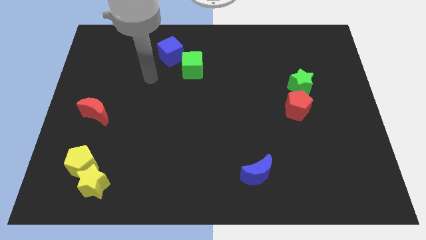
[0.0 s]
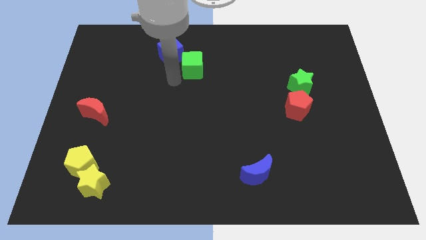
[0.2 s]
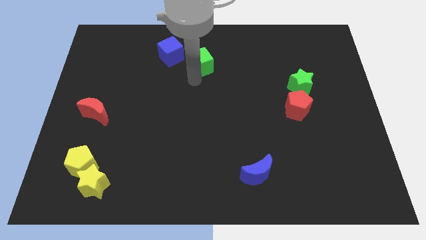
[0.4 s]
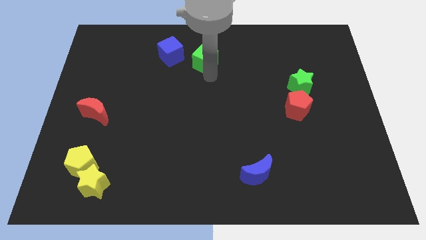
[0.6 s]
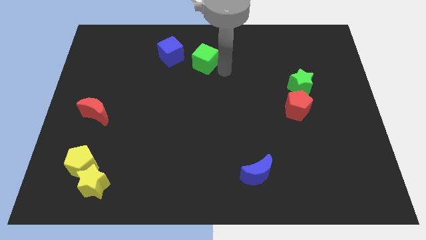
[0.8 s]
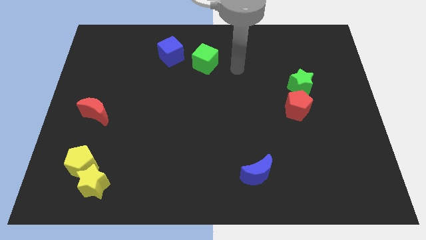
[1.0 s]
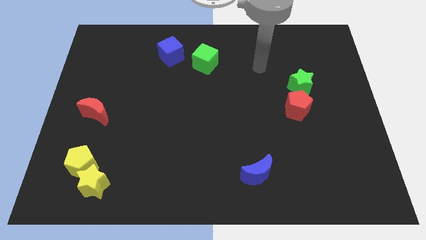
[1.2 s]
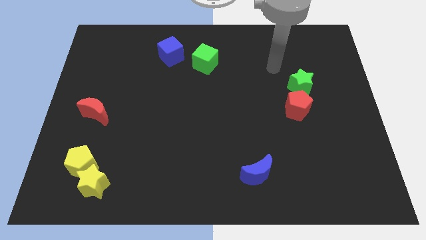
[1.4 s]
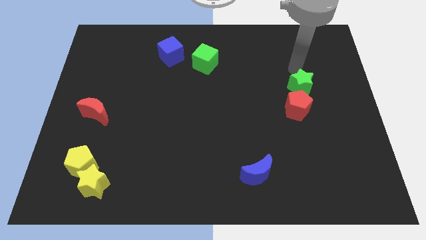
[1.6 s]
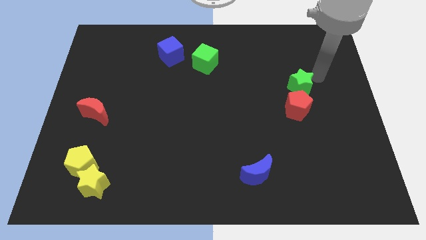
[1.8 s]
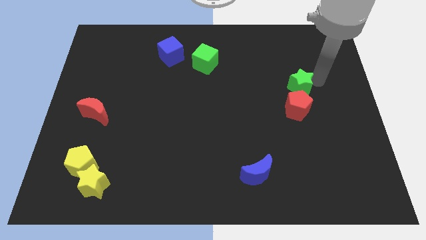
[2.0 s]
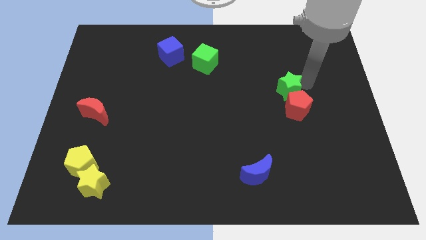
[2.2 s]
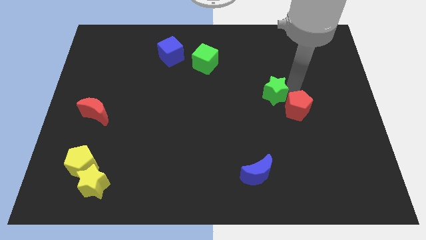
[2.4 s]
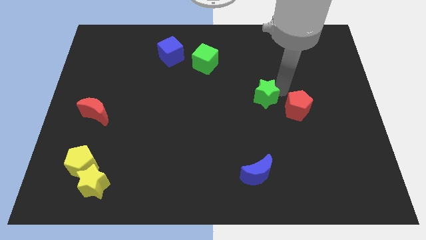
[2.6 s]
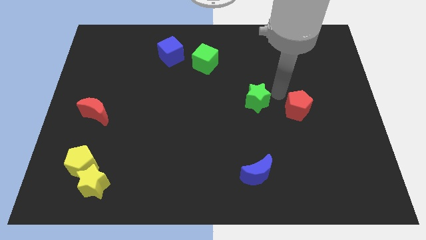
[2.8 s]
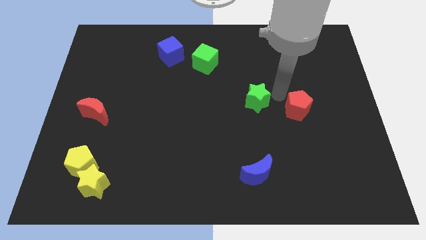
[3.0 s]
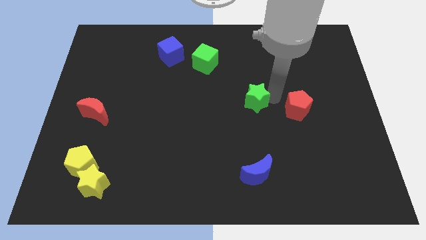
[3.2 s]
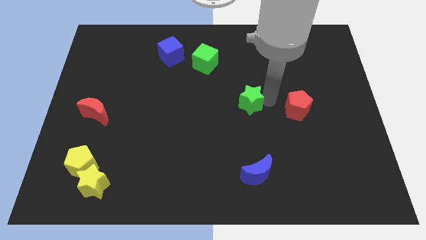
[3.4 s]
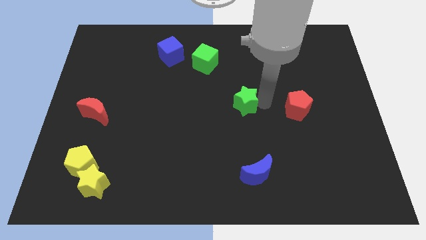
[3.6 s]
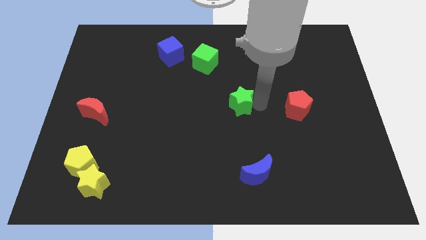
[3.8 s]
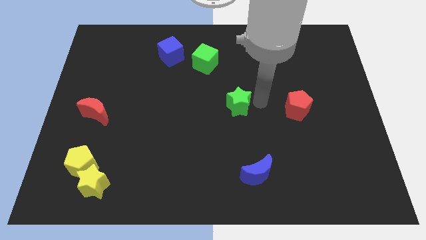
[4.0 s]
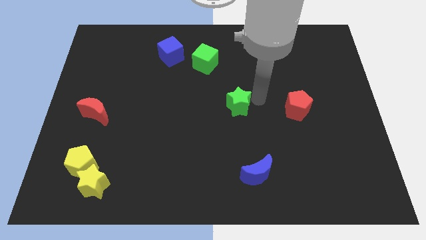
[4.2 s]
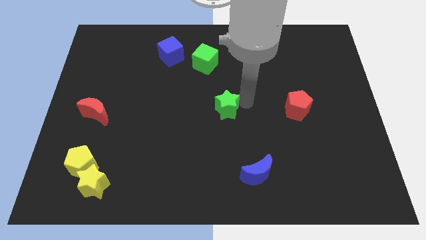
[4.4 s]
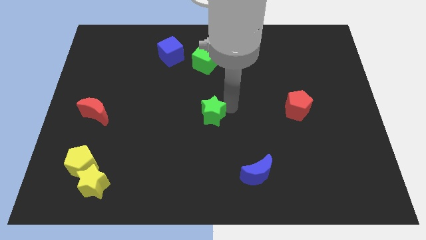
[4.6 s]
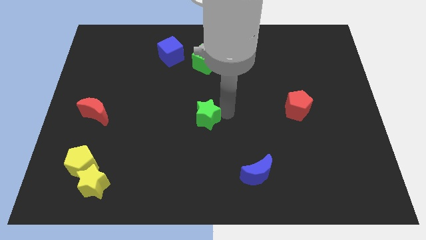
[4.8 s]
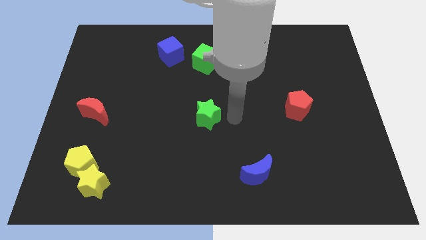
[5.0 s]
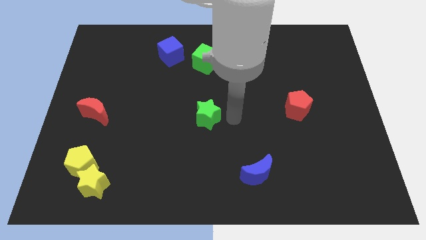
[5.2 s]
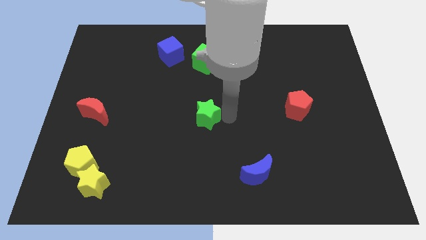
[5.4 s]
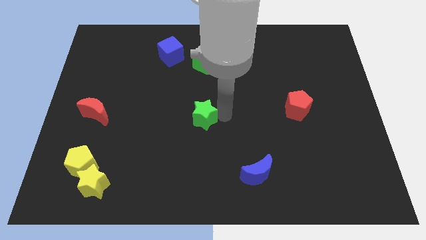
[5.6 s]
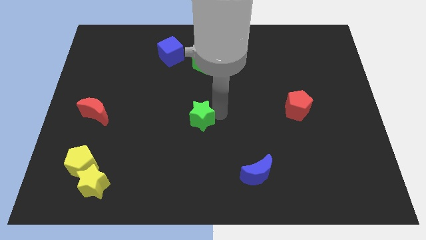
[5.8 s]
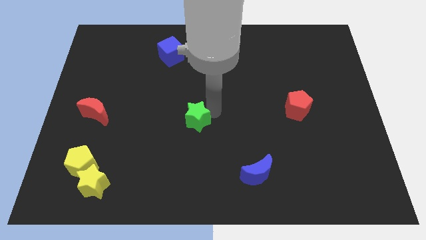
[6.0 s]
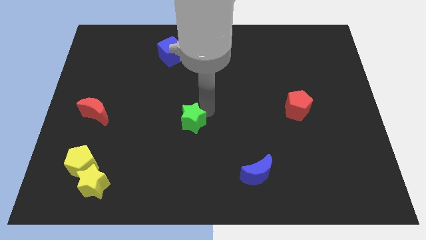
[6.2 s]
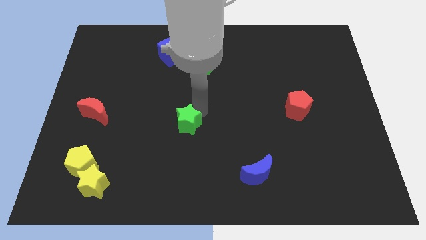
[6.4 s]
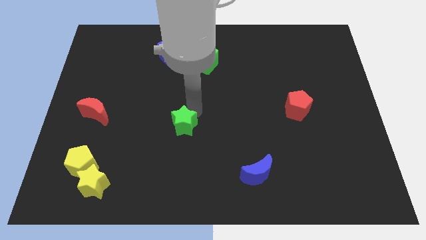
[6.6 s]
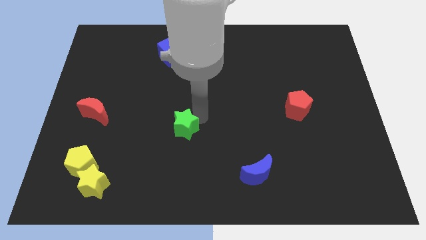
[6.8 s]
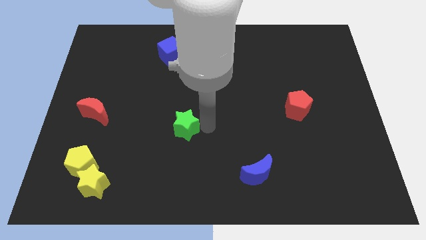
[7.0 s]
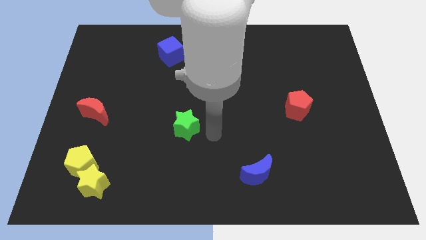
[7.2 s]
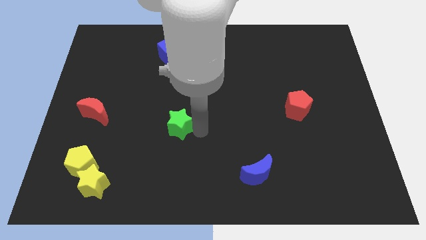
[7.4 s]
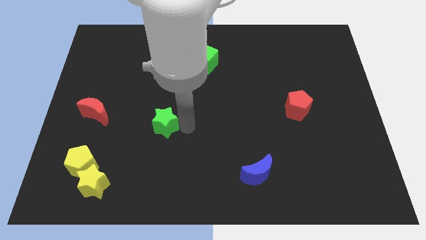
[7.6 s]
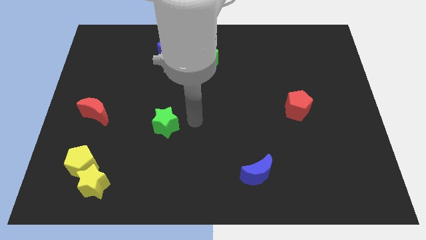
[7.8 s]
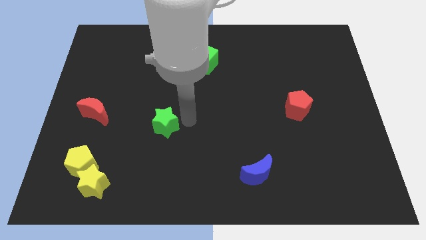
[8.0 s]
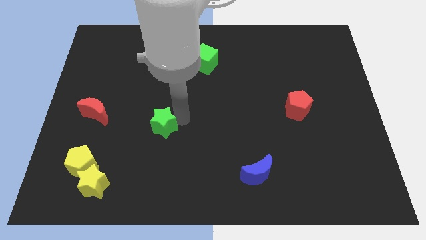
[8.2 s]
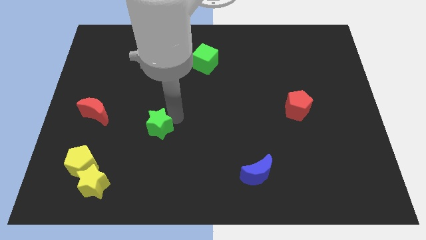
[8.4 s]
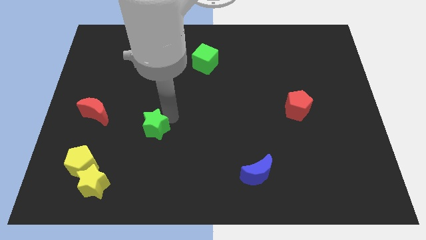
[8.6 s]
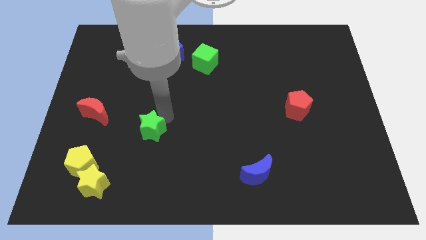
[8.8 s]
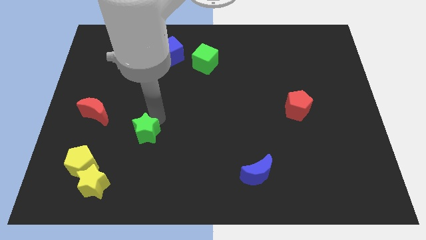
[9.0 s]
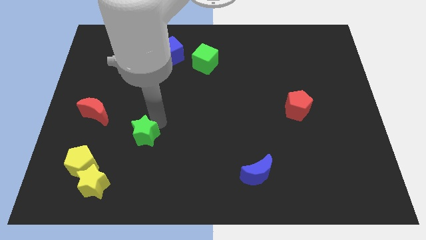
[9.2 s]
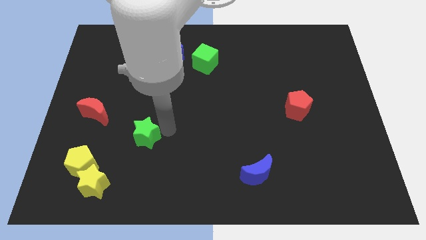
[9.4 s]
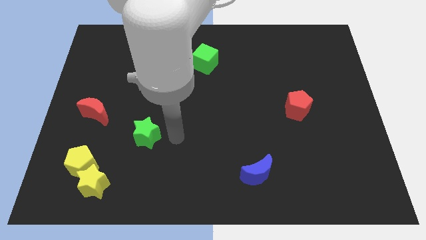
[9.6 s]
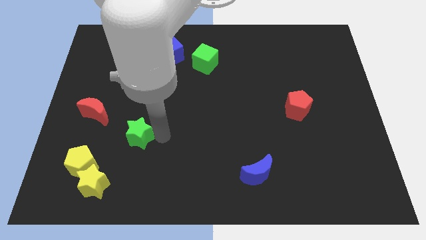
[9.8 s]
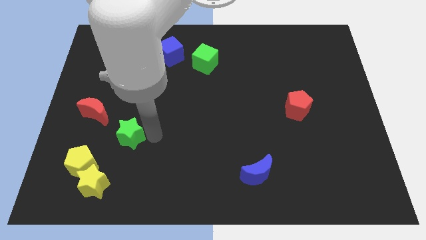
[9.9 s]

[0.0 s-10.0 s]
put the green star to the bottom right side of the red moon

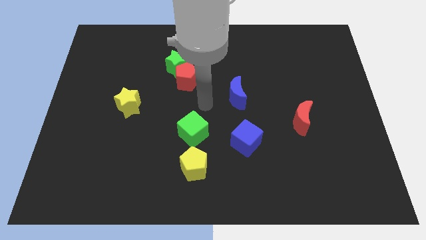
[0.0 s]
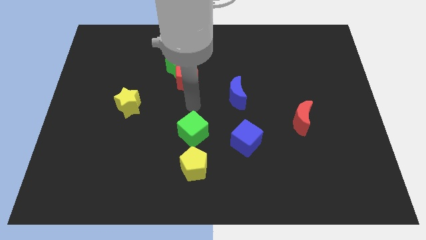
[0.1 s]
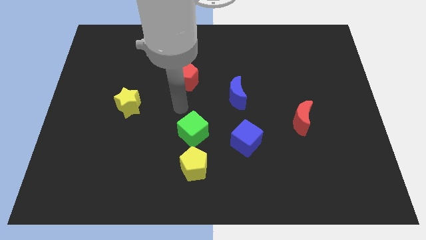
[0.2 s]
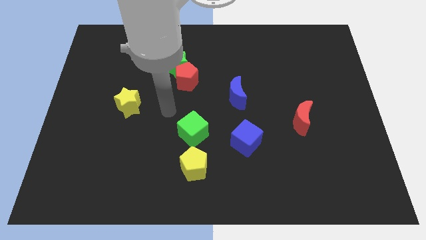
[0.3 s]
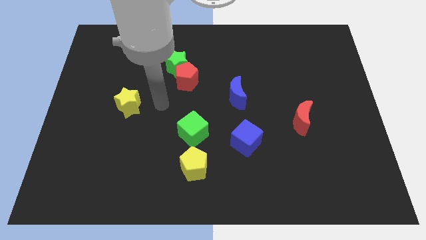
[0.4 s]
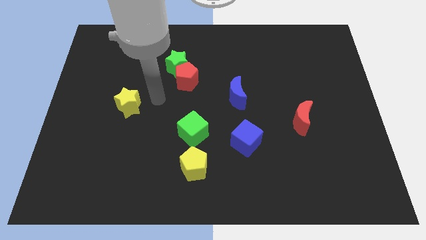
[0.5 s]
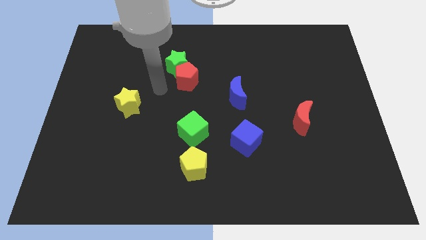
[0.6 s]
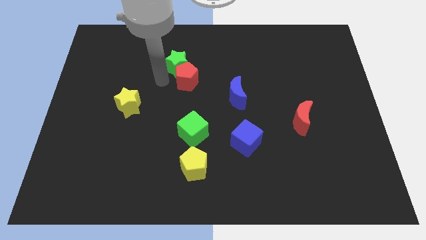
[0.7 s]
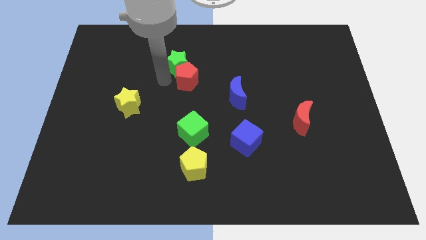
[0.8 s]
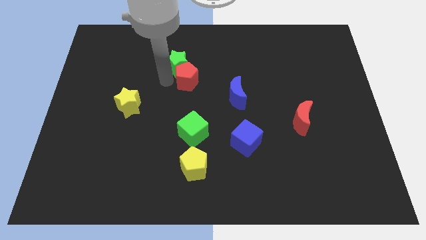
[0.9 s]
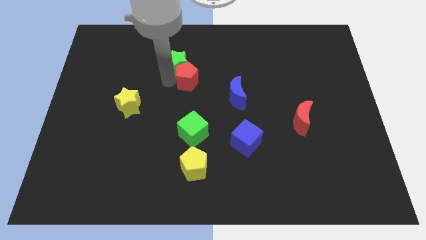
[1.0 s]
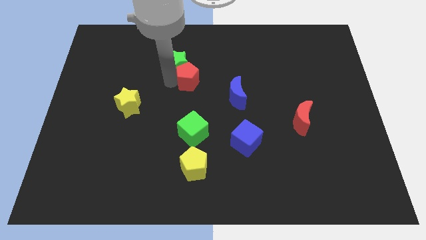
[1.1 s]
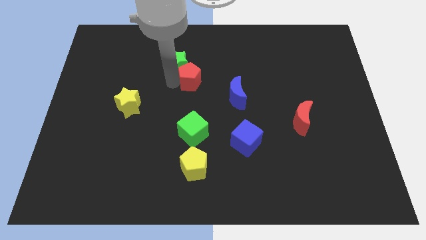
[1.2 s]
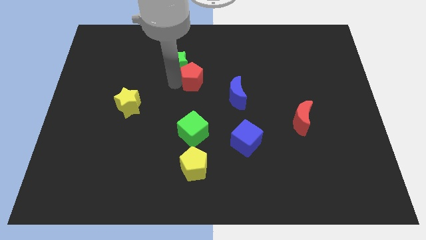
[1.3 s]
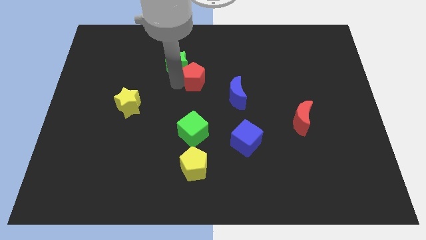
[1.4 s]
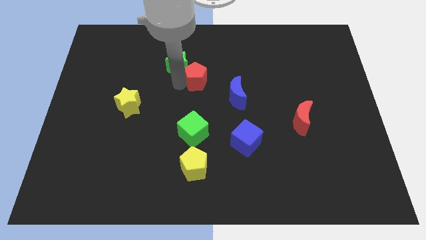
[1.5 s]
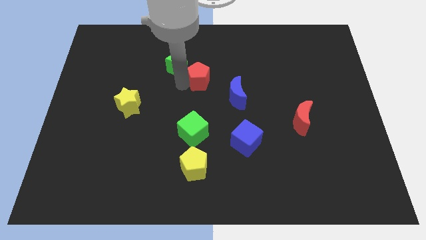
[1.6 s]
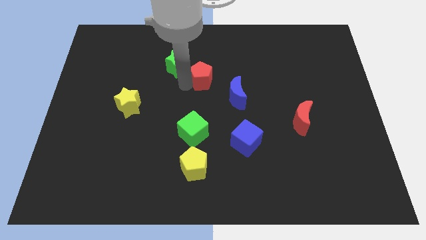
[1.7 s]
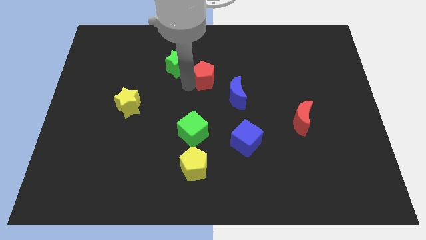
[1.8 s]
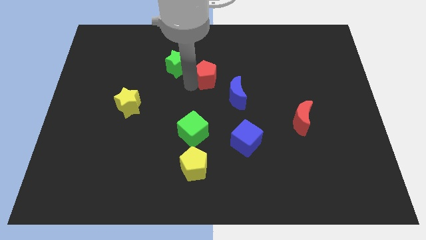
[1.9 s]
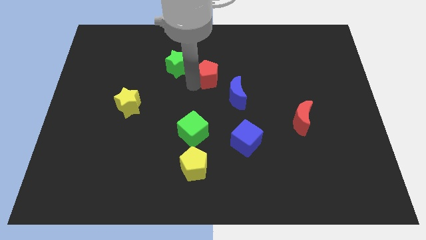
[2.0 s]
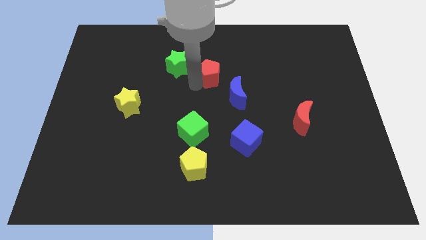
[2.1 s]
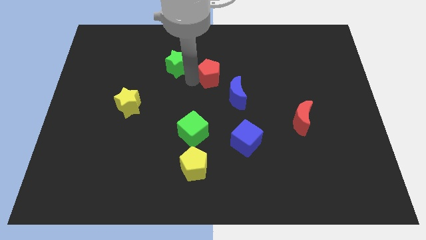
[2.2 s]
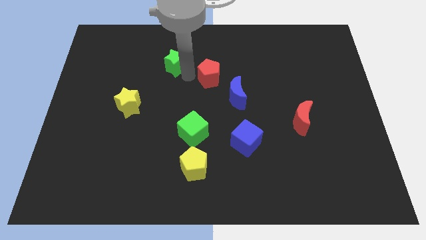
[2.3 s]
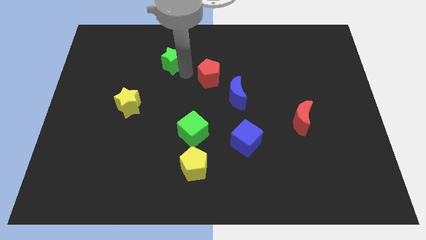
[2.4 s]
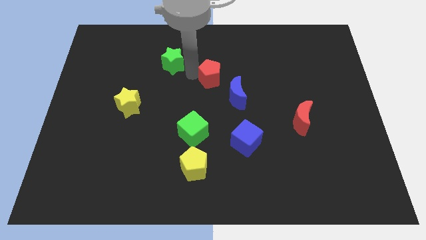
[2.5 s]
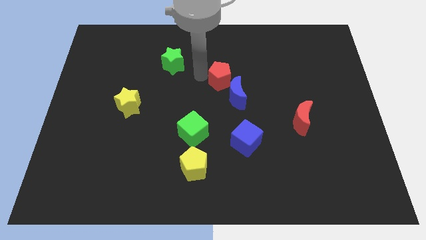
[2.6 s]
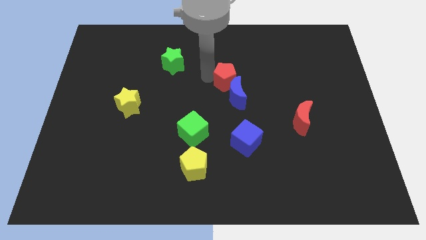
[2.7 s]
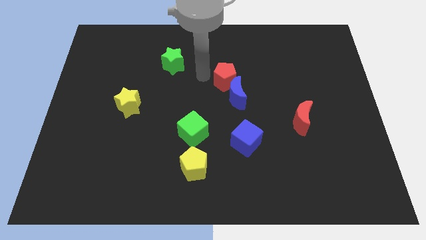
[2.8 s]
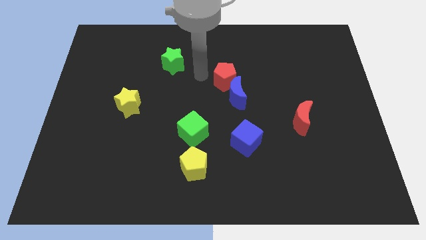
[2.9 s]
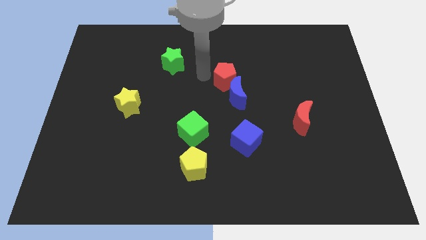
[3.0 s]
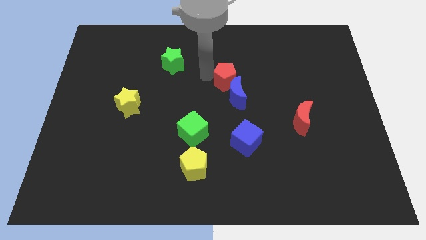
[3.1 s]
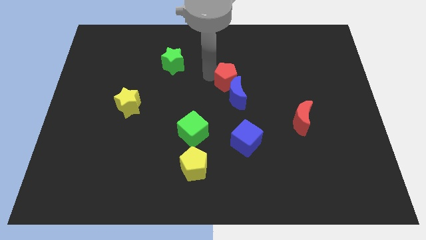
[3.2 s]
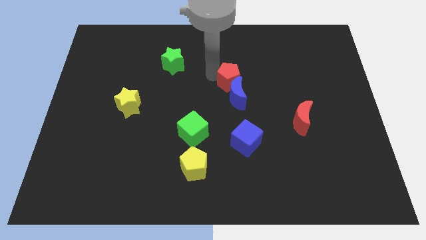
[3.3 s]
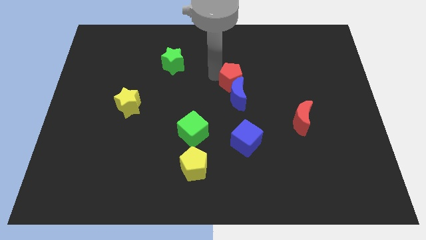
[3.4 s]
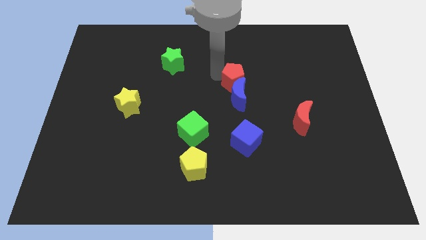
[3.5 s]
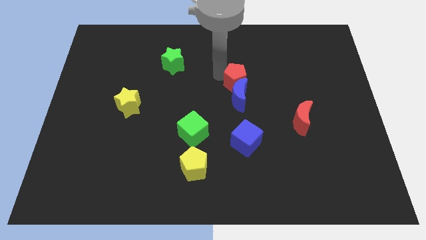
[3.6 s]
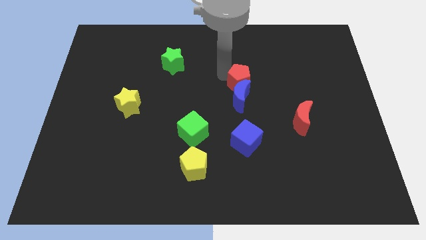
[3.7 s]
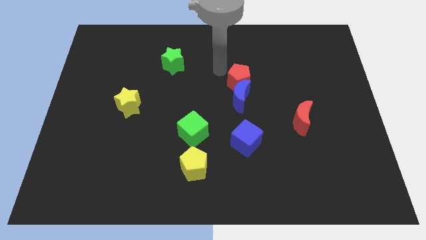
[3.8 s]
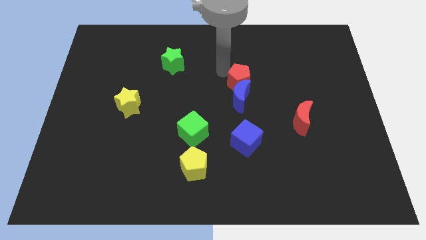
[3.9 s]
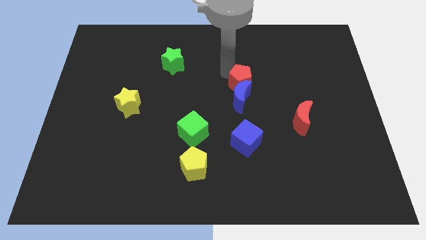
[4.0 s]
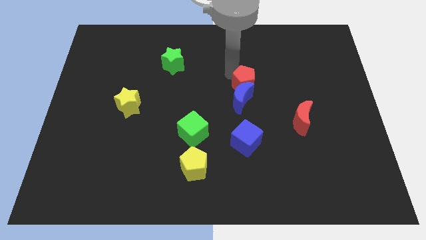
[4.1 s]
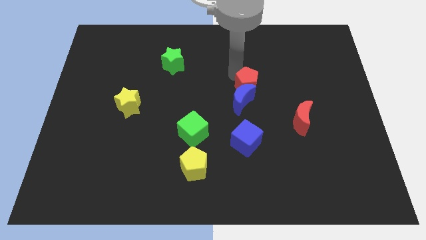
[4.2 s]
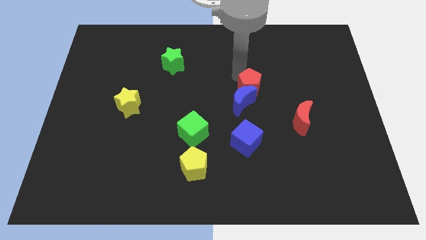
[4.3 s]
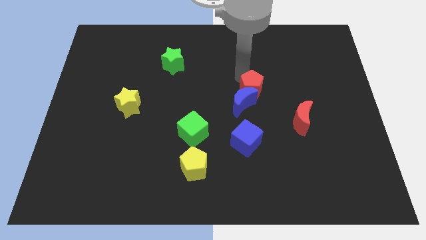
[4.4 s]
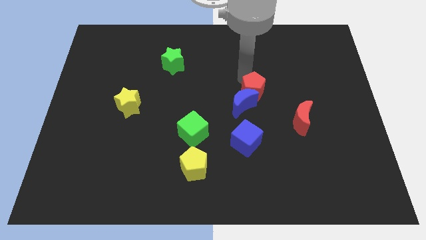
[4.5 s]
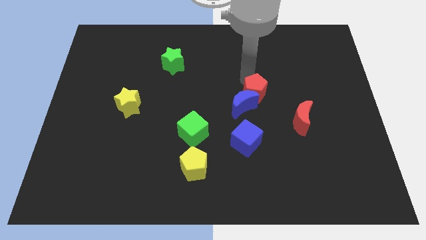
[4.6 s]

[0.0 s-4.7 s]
put the red pentagon diagonally up and to the left of the red moon
